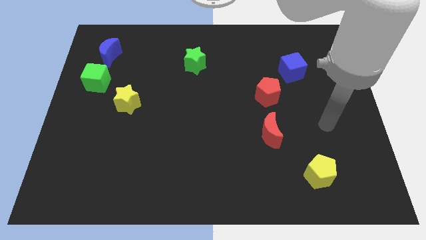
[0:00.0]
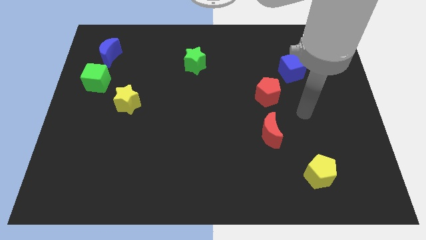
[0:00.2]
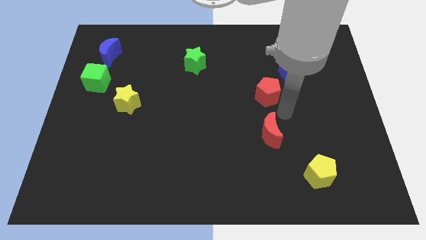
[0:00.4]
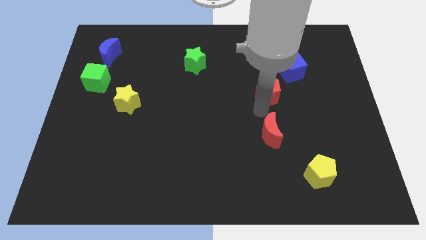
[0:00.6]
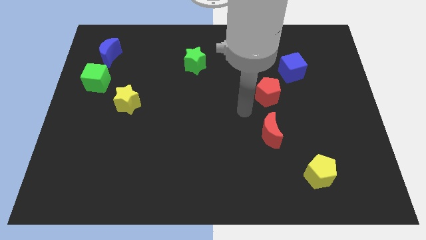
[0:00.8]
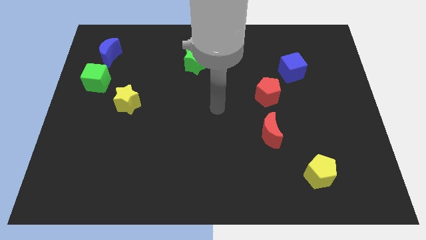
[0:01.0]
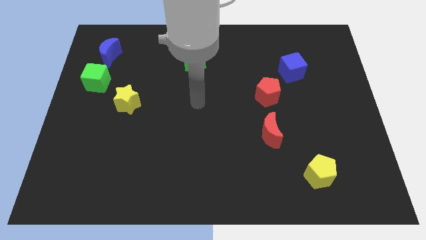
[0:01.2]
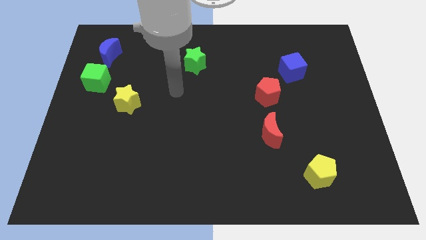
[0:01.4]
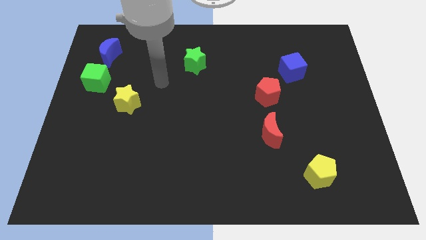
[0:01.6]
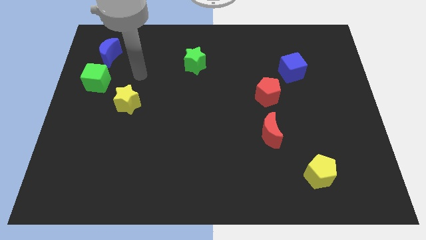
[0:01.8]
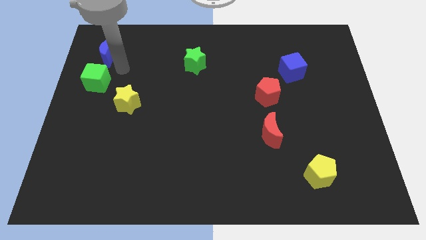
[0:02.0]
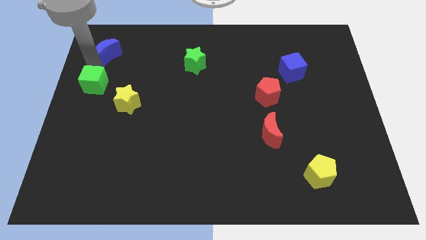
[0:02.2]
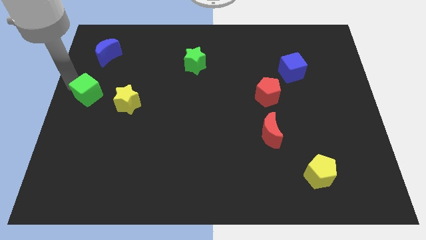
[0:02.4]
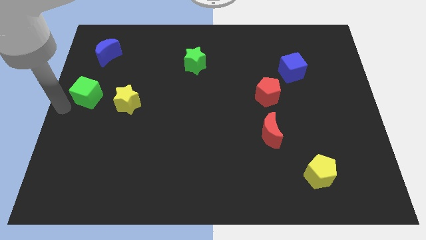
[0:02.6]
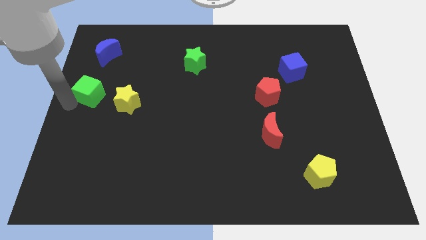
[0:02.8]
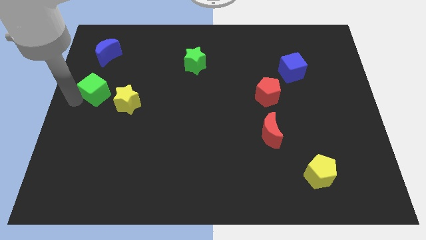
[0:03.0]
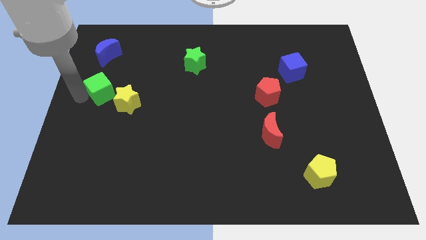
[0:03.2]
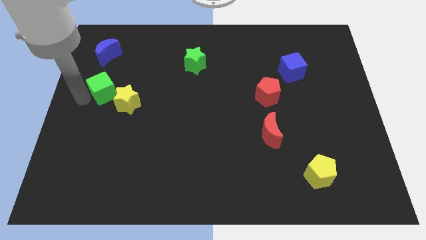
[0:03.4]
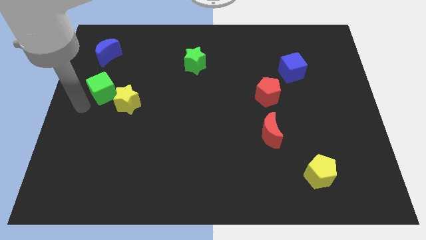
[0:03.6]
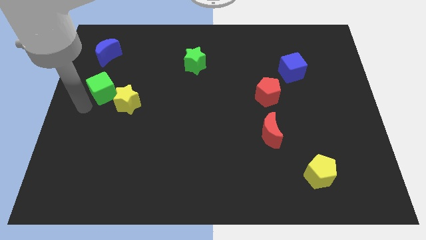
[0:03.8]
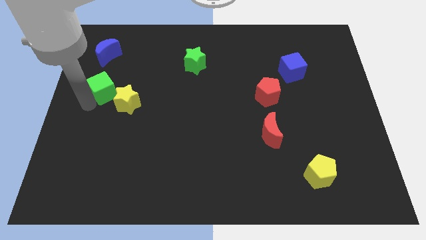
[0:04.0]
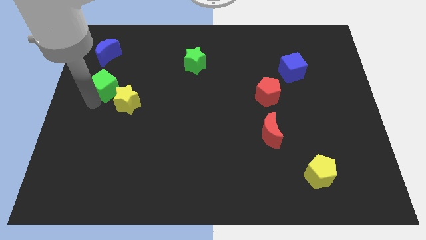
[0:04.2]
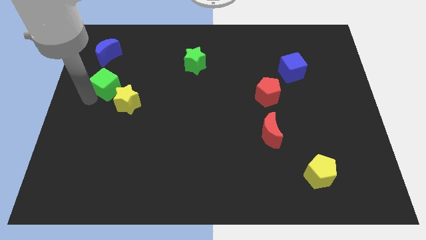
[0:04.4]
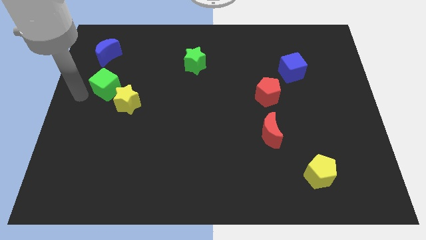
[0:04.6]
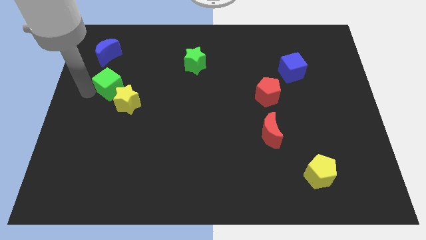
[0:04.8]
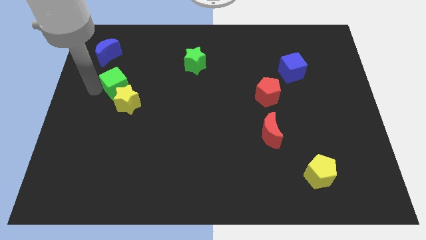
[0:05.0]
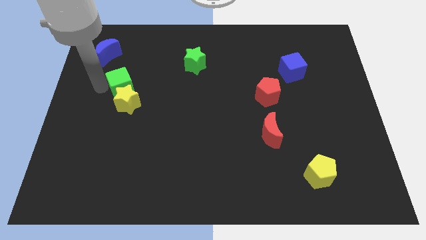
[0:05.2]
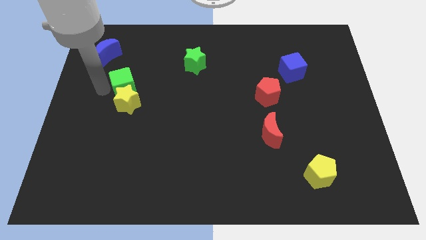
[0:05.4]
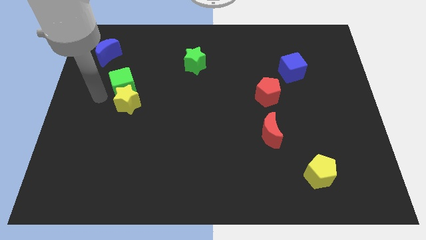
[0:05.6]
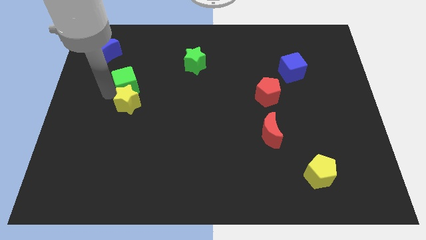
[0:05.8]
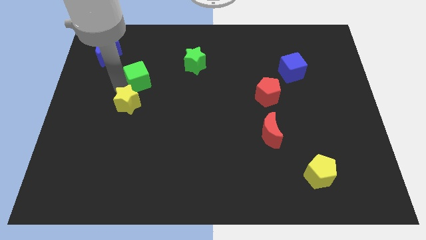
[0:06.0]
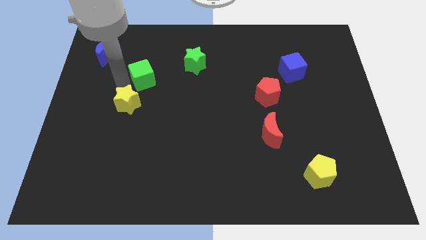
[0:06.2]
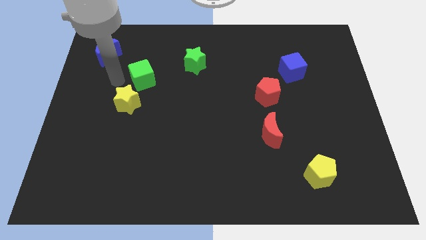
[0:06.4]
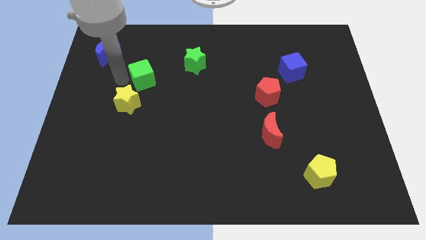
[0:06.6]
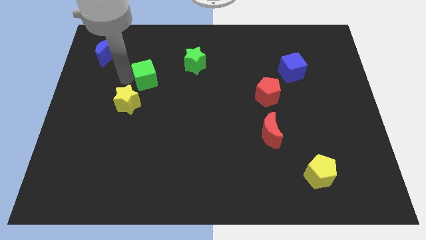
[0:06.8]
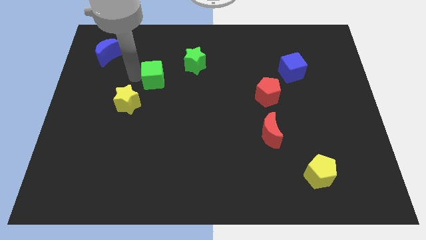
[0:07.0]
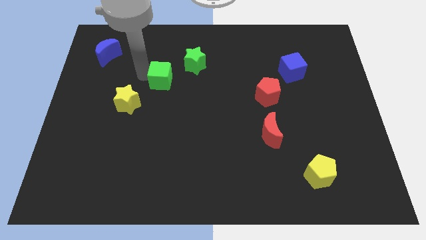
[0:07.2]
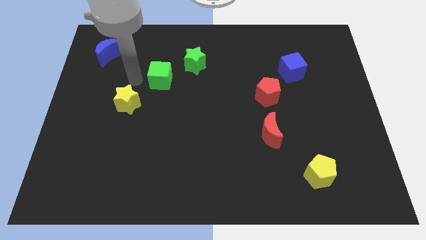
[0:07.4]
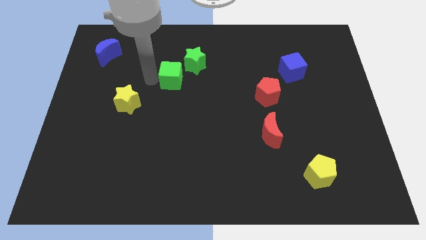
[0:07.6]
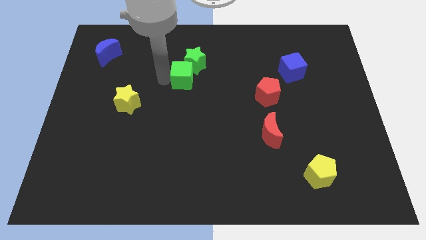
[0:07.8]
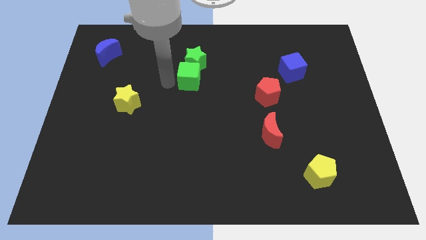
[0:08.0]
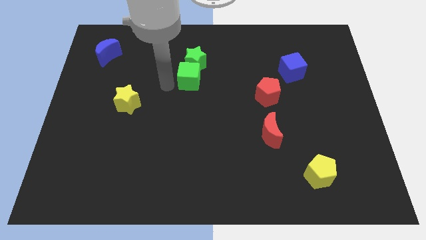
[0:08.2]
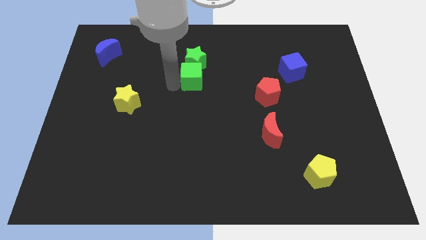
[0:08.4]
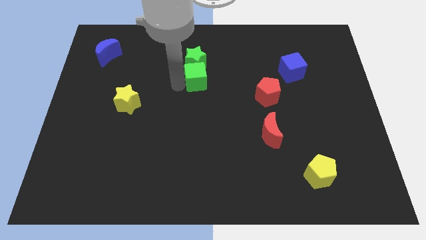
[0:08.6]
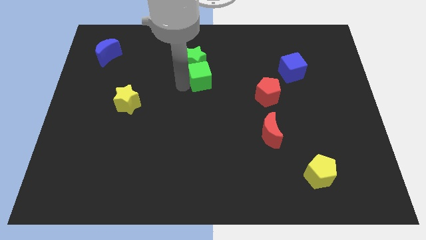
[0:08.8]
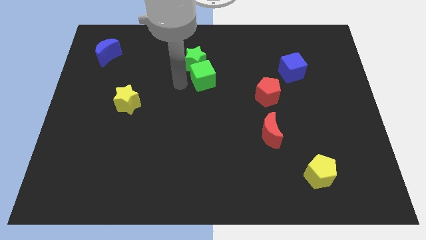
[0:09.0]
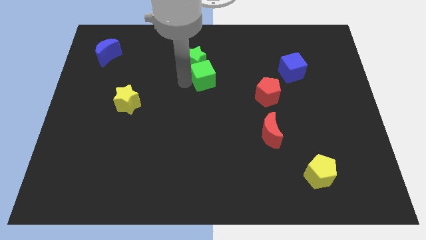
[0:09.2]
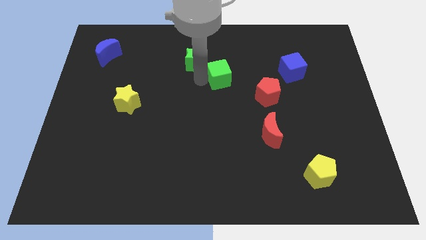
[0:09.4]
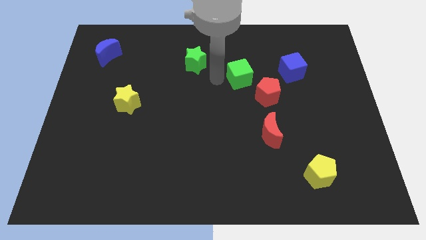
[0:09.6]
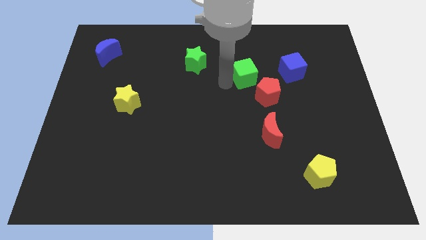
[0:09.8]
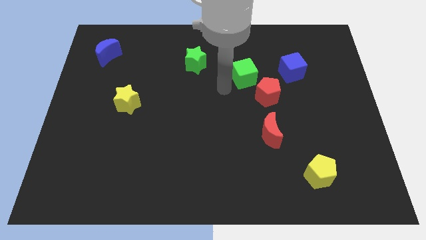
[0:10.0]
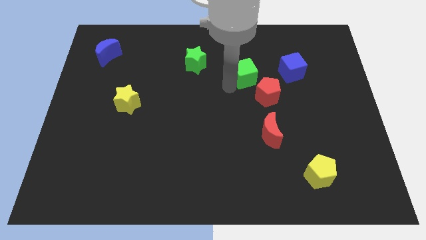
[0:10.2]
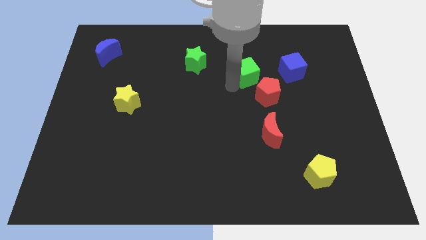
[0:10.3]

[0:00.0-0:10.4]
move the green cube above the red pentagon

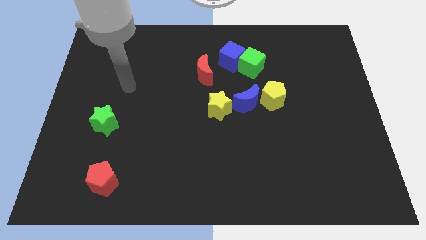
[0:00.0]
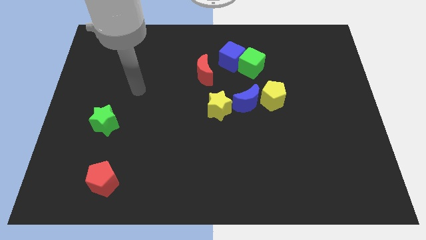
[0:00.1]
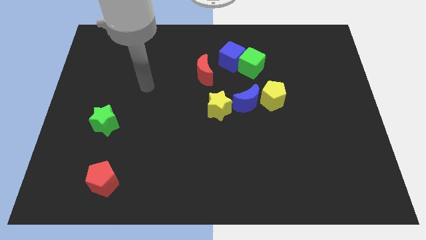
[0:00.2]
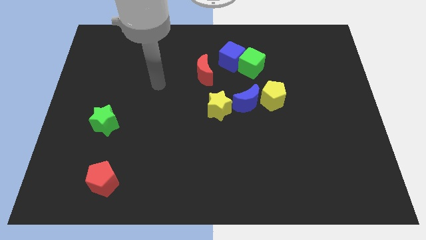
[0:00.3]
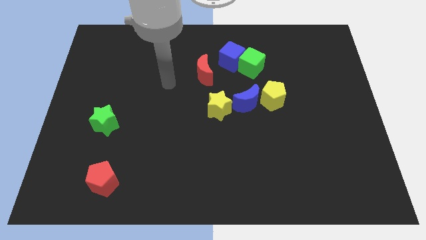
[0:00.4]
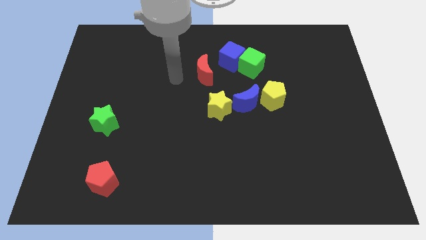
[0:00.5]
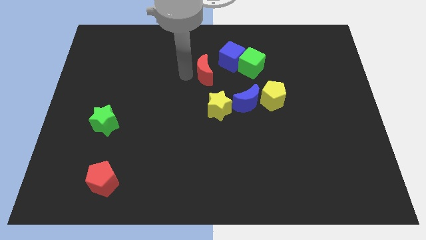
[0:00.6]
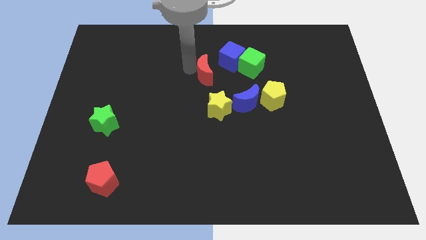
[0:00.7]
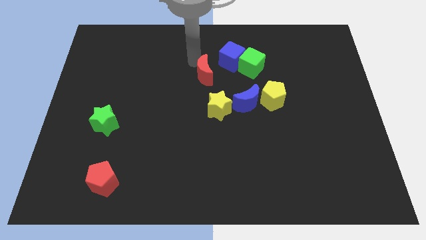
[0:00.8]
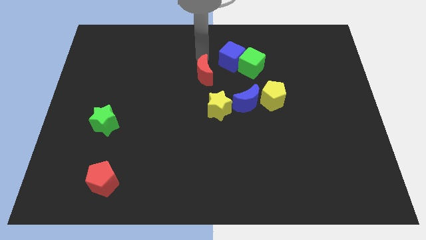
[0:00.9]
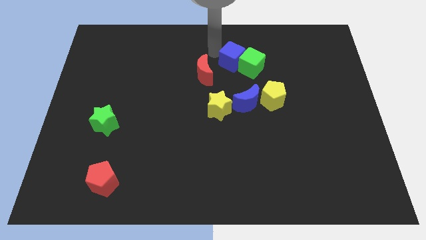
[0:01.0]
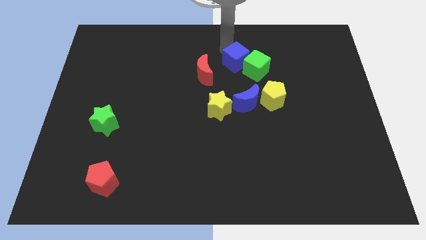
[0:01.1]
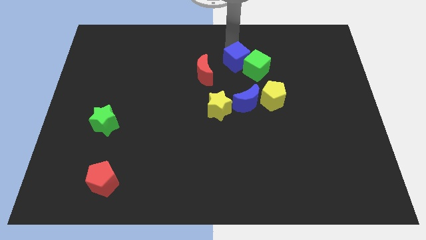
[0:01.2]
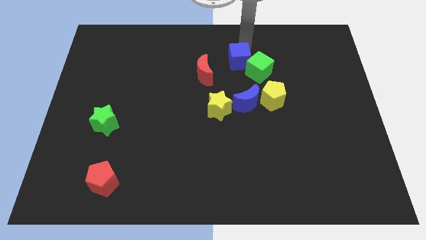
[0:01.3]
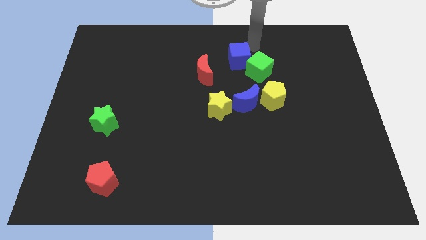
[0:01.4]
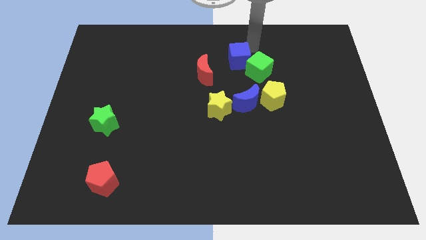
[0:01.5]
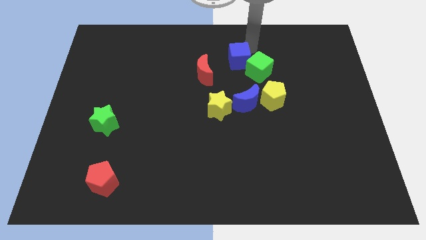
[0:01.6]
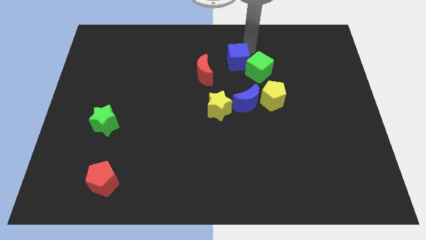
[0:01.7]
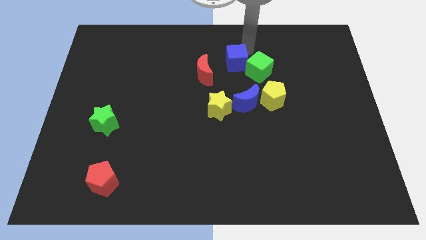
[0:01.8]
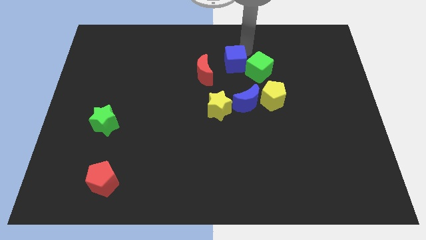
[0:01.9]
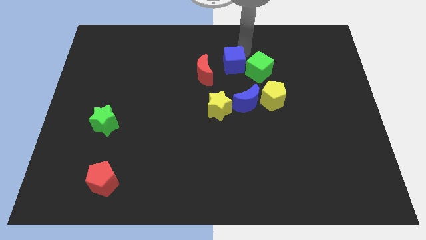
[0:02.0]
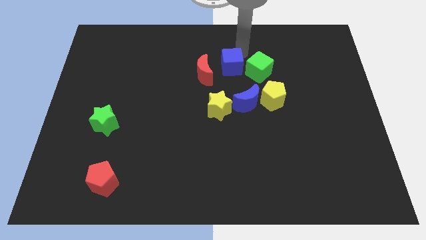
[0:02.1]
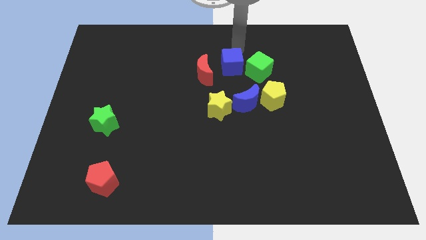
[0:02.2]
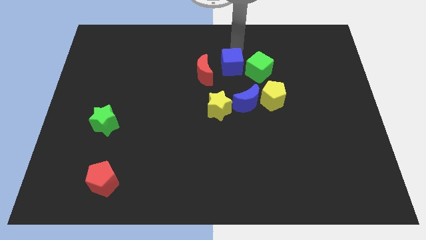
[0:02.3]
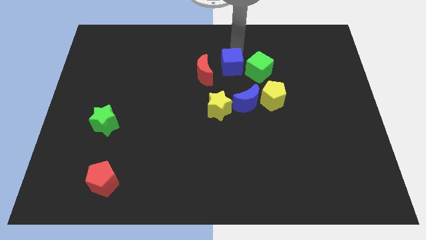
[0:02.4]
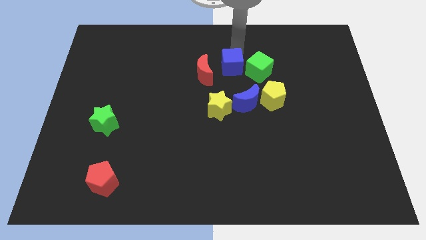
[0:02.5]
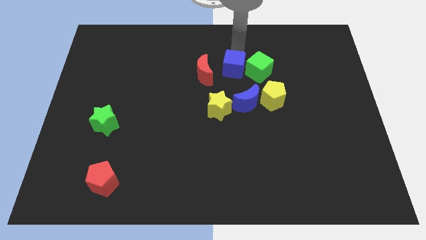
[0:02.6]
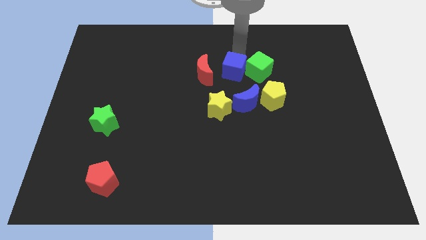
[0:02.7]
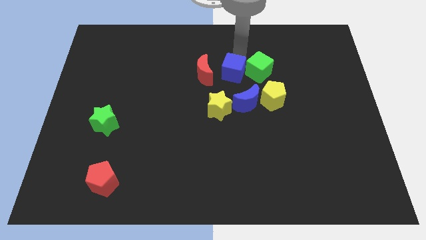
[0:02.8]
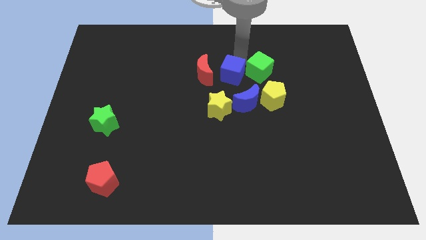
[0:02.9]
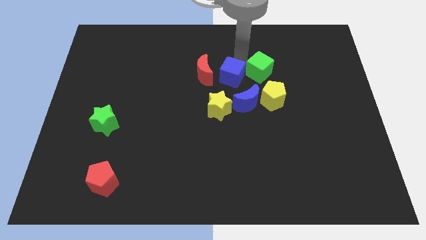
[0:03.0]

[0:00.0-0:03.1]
move the blue cube to the bottom right of the red moon
